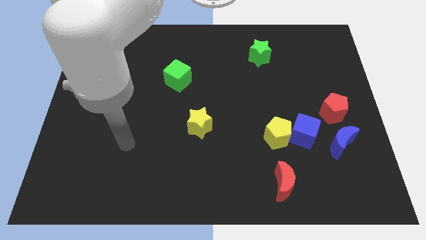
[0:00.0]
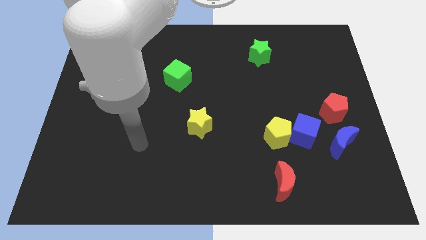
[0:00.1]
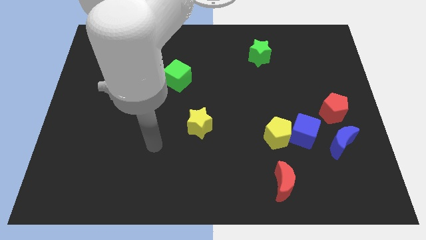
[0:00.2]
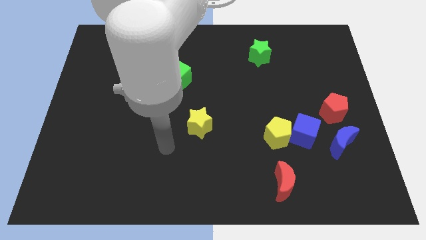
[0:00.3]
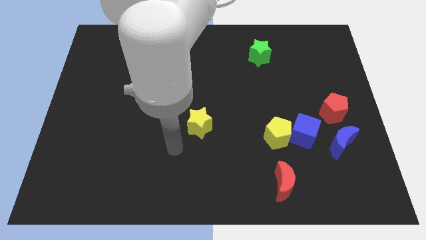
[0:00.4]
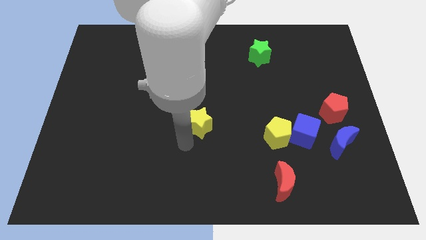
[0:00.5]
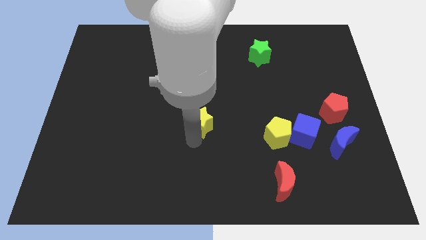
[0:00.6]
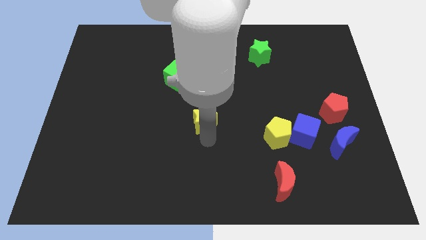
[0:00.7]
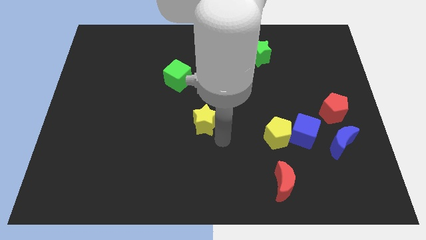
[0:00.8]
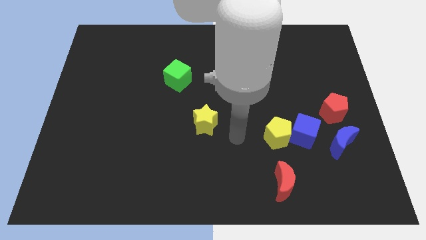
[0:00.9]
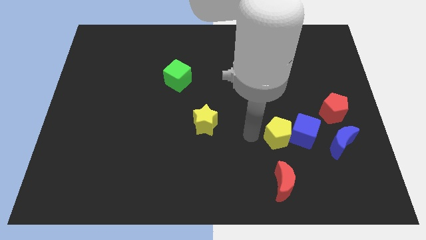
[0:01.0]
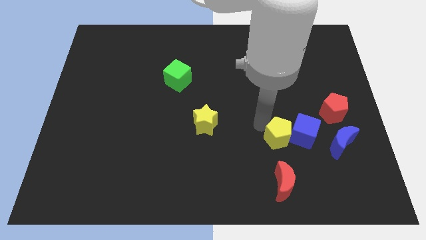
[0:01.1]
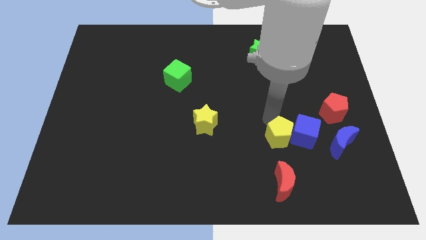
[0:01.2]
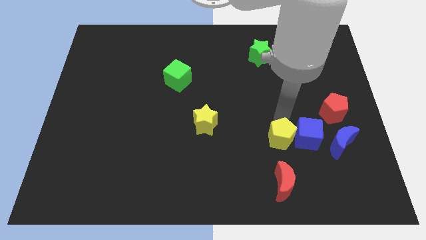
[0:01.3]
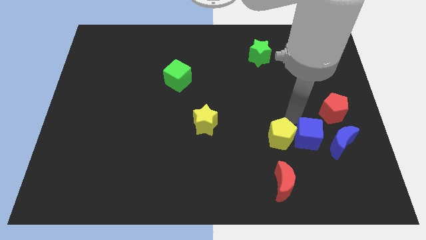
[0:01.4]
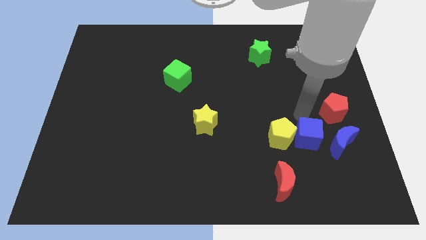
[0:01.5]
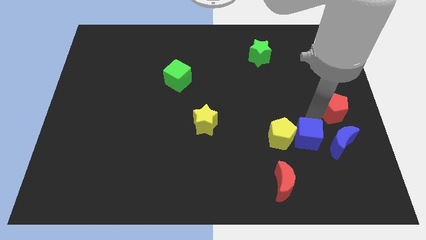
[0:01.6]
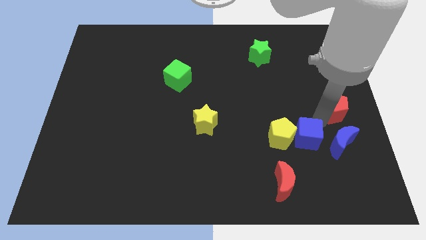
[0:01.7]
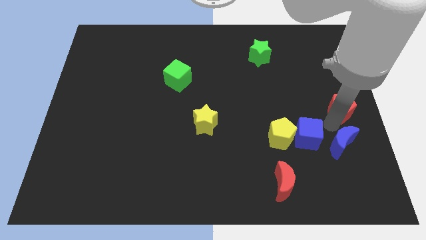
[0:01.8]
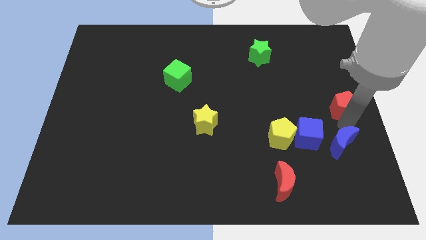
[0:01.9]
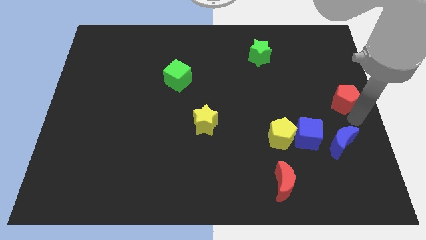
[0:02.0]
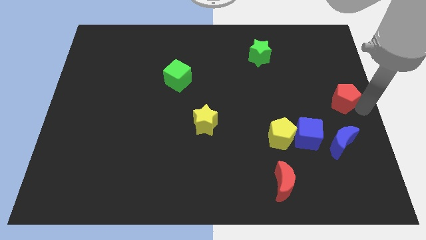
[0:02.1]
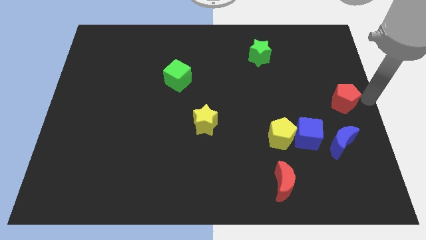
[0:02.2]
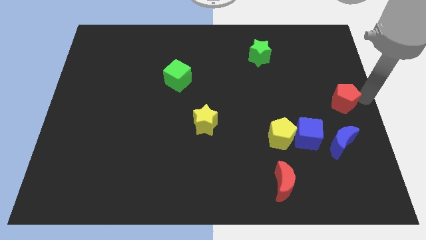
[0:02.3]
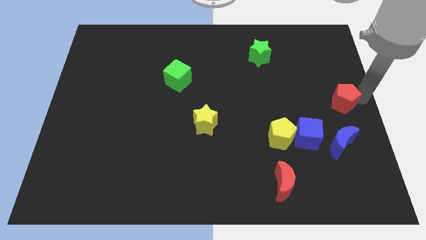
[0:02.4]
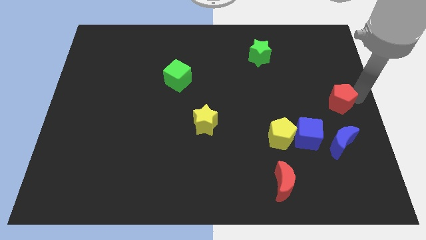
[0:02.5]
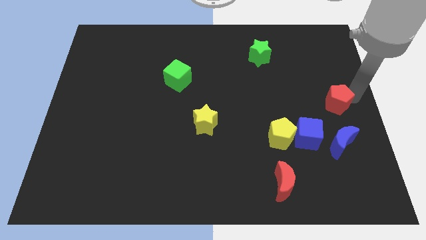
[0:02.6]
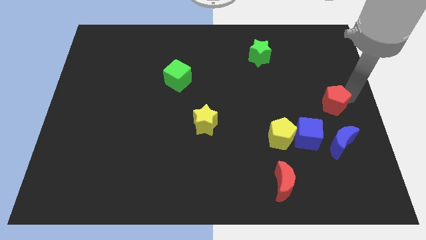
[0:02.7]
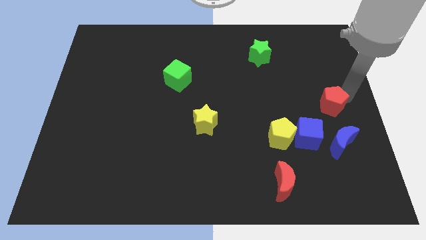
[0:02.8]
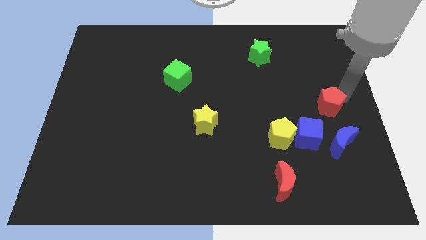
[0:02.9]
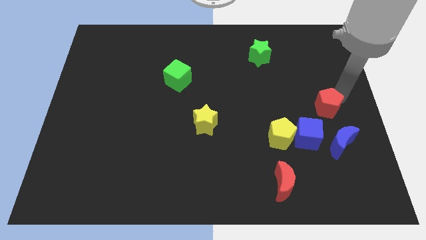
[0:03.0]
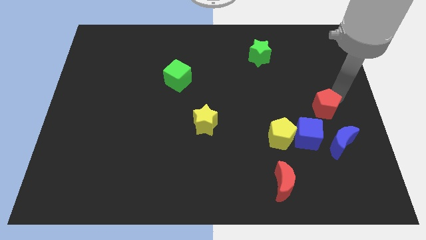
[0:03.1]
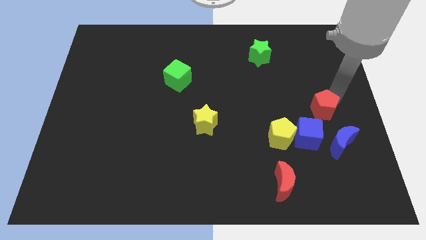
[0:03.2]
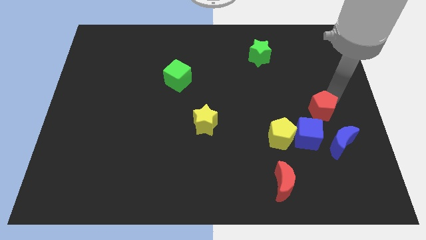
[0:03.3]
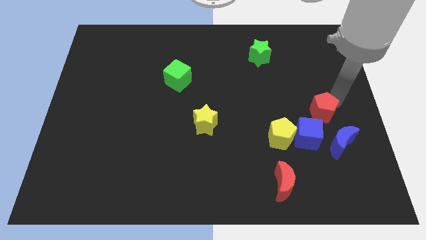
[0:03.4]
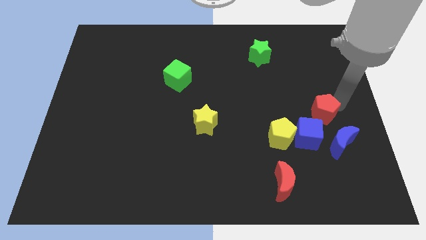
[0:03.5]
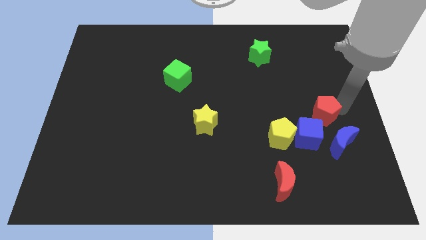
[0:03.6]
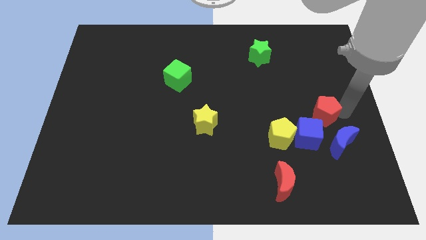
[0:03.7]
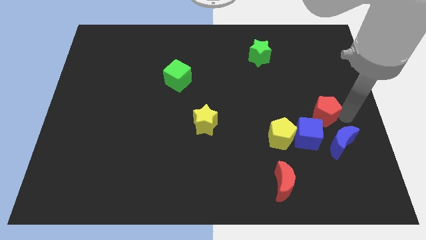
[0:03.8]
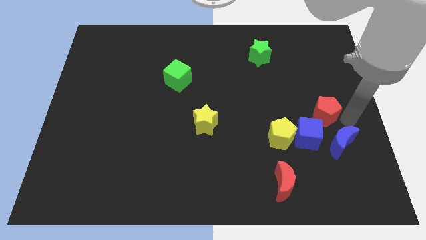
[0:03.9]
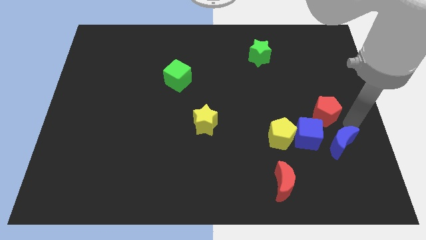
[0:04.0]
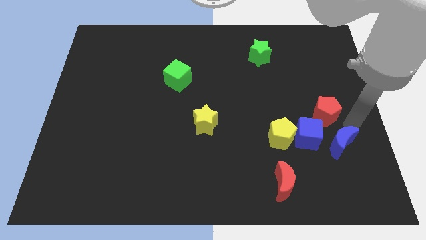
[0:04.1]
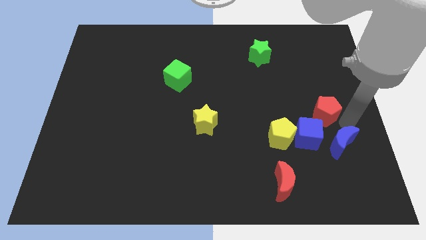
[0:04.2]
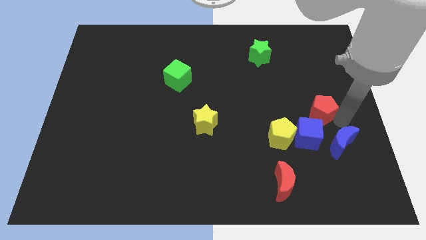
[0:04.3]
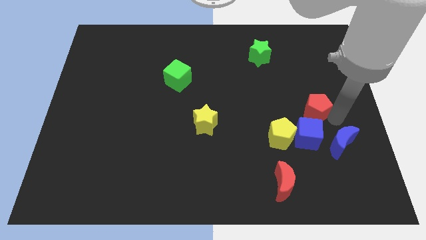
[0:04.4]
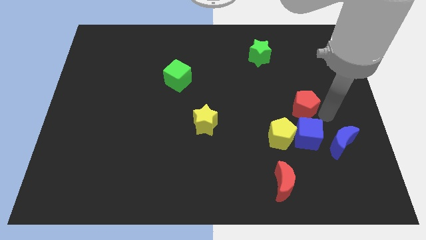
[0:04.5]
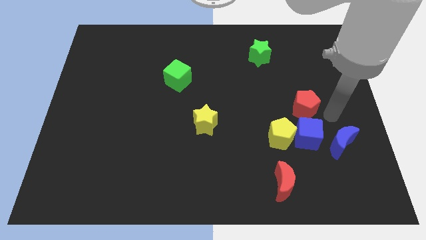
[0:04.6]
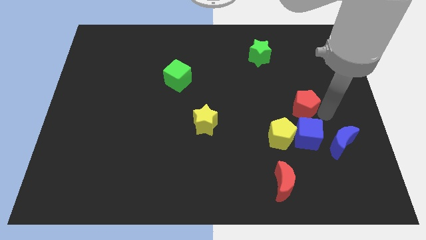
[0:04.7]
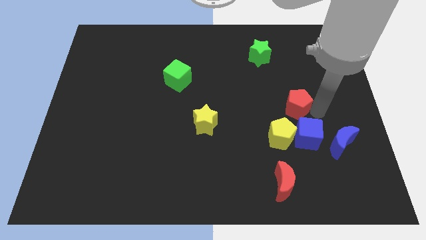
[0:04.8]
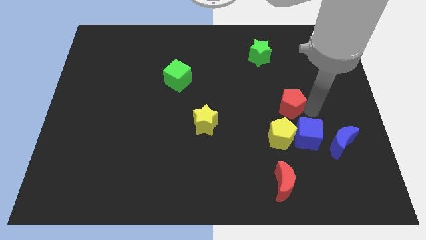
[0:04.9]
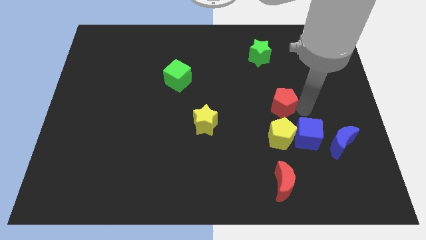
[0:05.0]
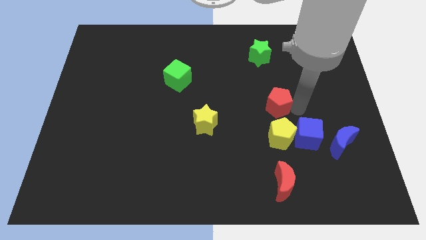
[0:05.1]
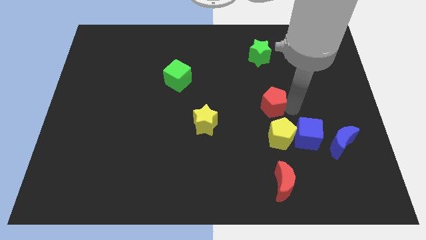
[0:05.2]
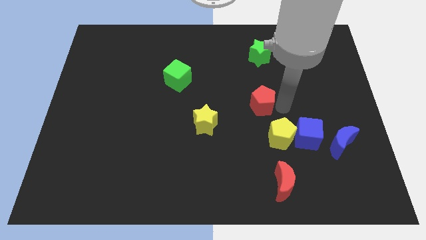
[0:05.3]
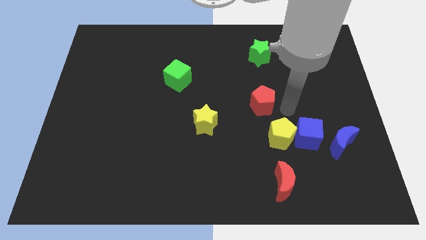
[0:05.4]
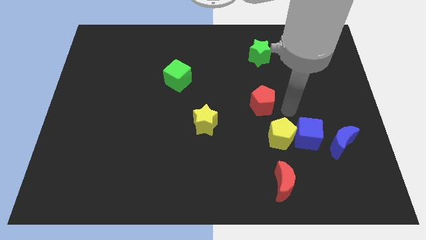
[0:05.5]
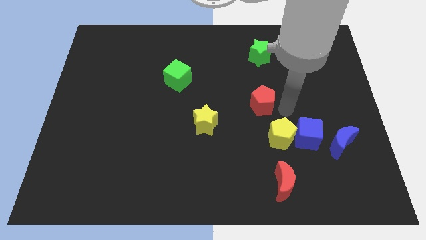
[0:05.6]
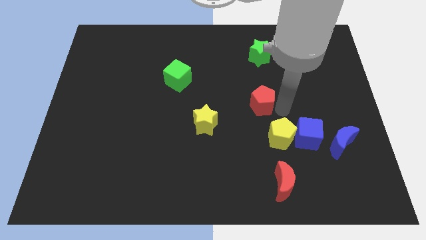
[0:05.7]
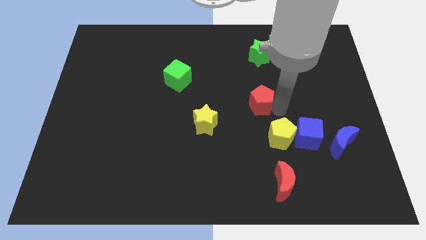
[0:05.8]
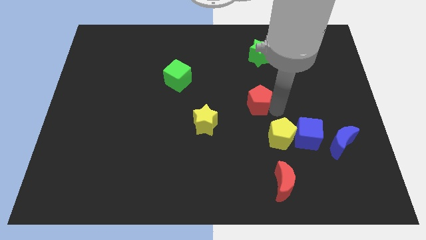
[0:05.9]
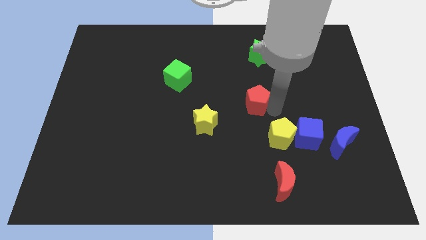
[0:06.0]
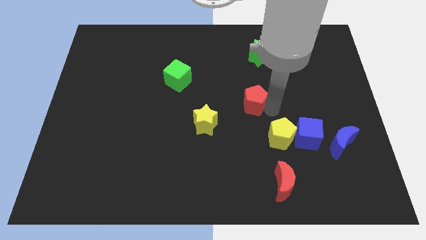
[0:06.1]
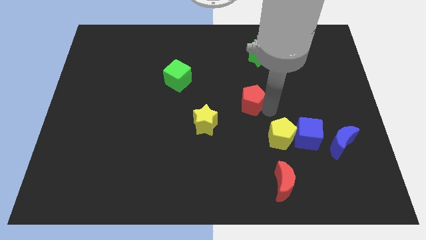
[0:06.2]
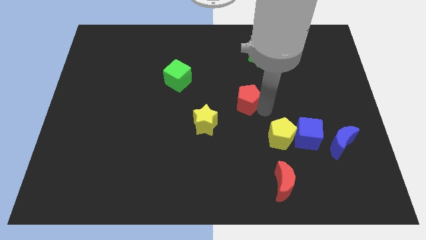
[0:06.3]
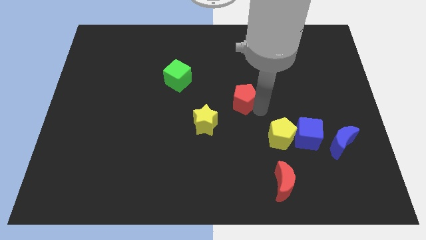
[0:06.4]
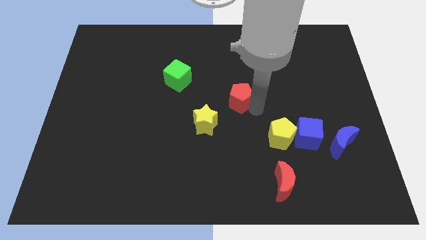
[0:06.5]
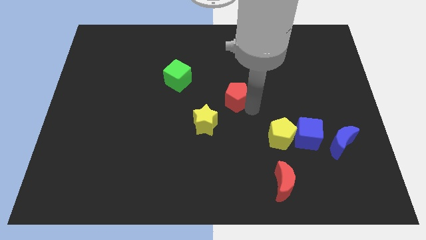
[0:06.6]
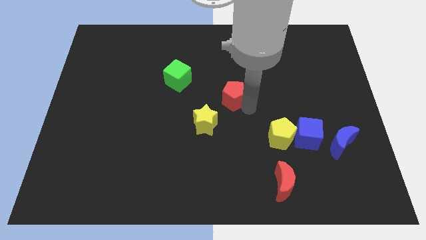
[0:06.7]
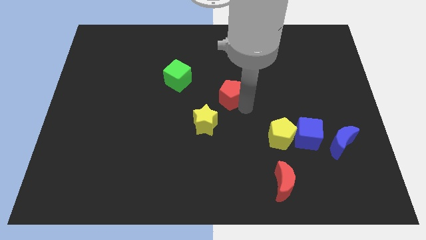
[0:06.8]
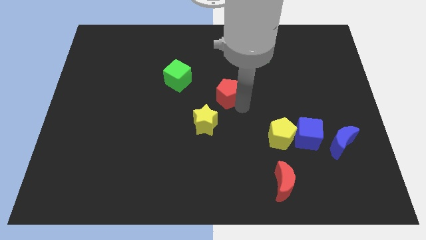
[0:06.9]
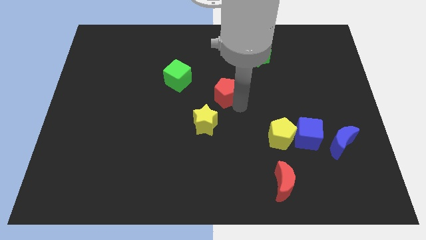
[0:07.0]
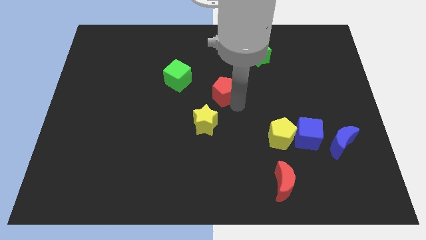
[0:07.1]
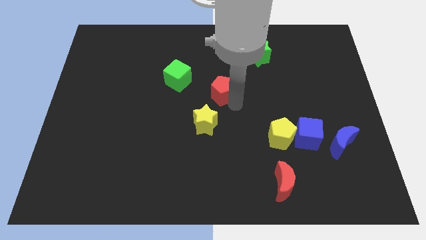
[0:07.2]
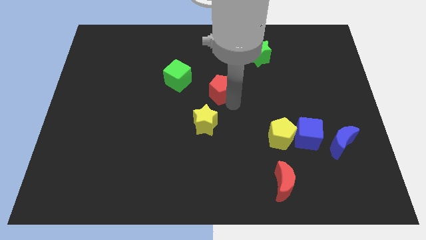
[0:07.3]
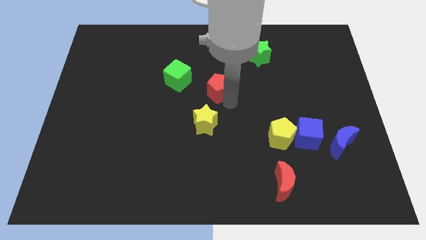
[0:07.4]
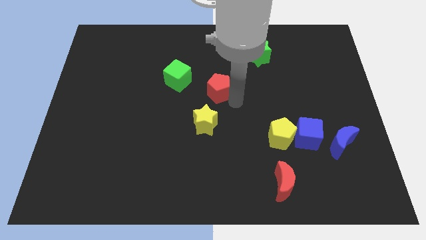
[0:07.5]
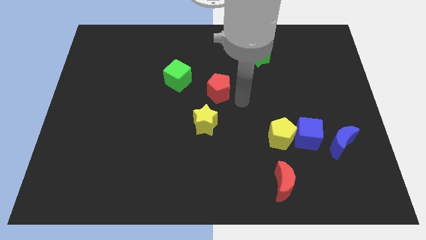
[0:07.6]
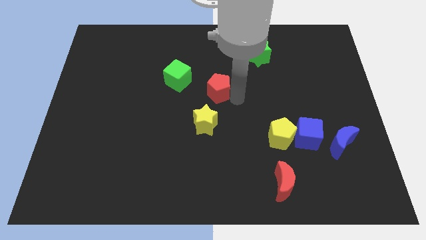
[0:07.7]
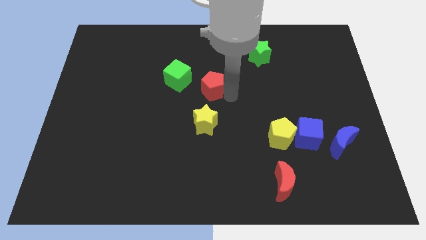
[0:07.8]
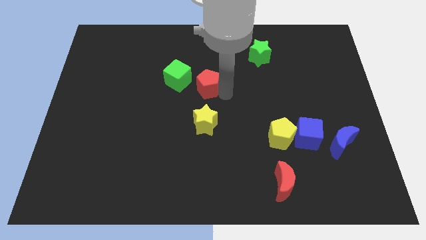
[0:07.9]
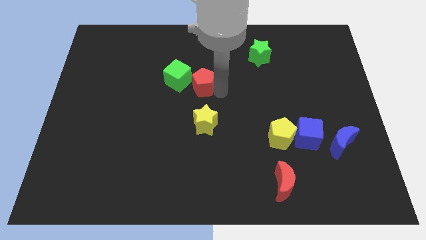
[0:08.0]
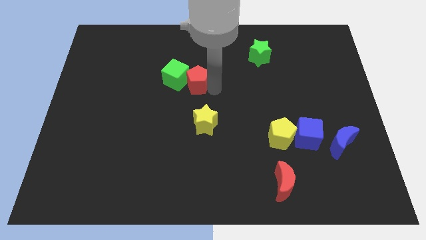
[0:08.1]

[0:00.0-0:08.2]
move the red pentagon close to the green cube
